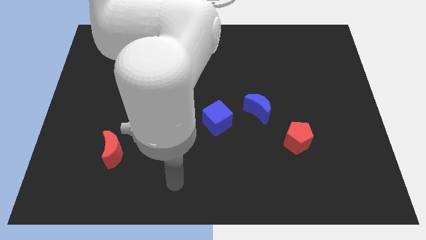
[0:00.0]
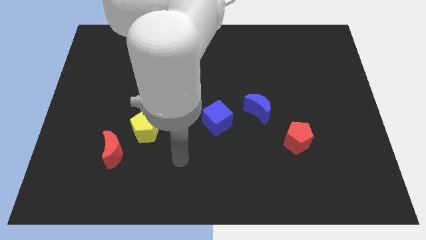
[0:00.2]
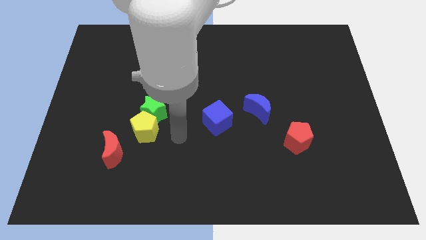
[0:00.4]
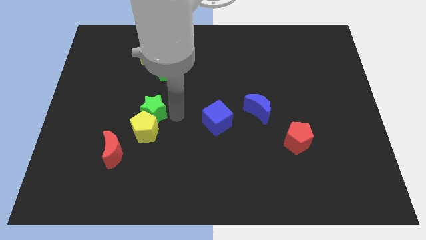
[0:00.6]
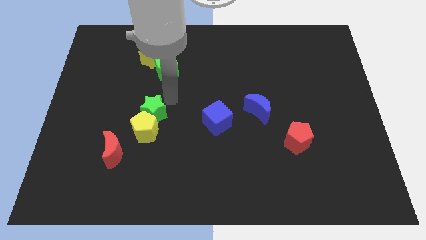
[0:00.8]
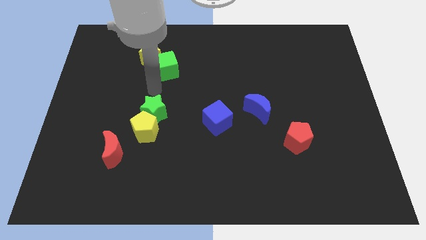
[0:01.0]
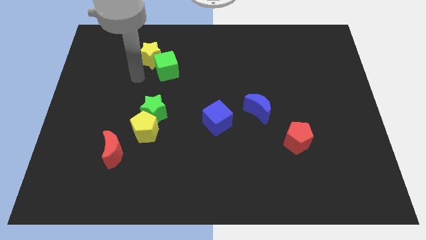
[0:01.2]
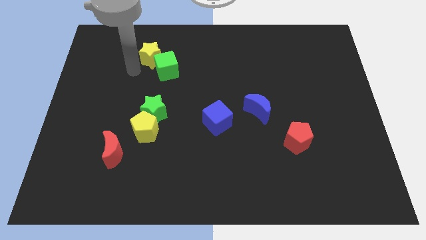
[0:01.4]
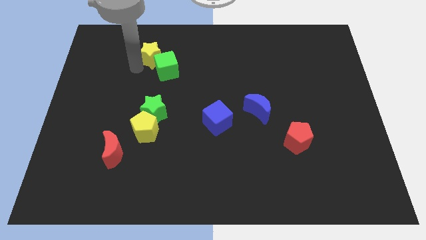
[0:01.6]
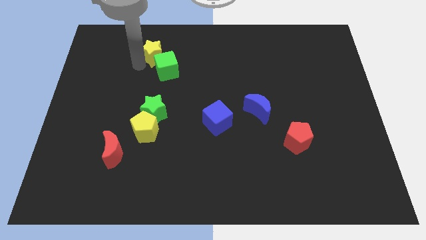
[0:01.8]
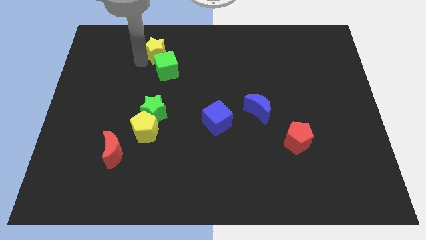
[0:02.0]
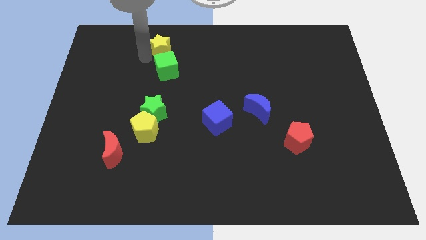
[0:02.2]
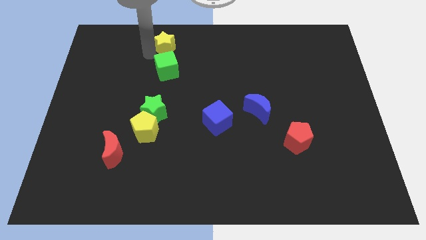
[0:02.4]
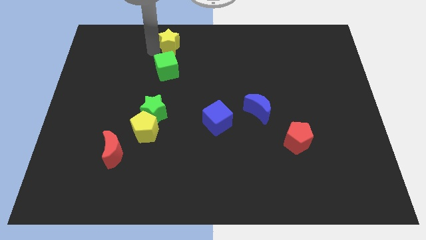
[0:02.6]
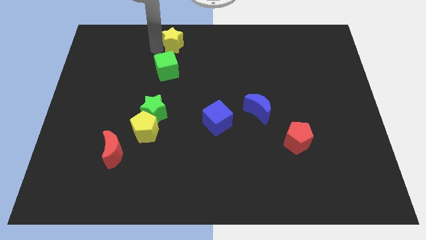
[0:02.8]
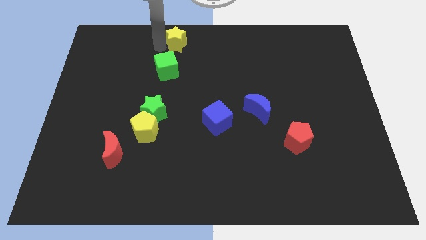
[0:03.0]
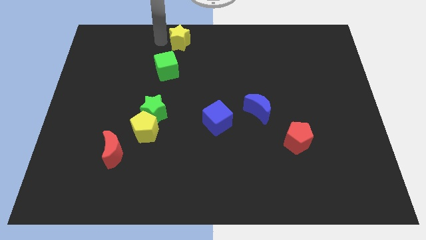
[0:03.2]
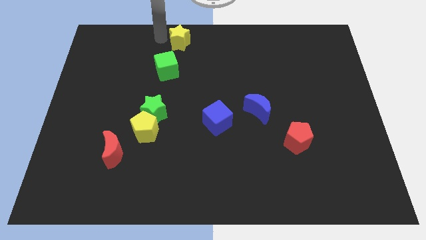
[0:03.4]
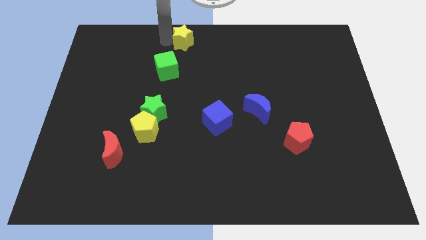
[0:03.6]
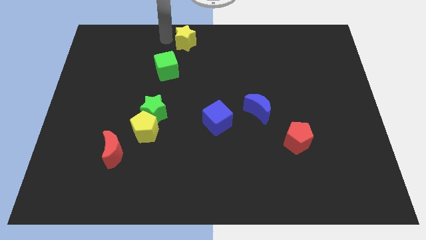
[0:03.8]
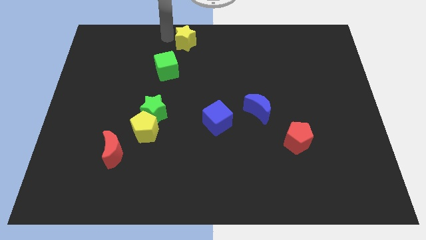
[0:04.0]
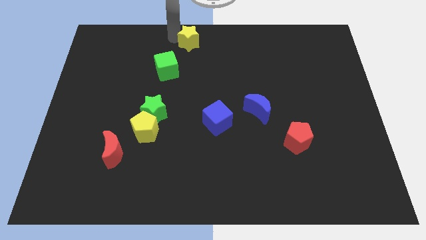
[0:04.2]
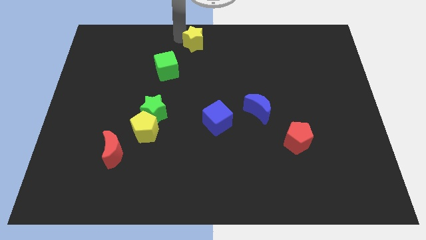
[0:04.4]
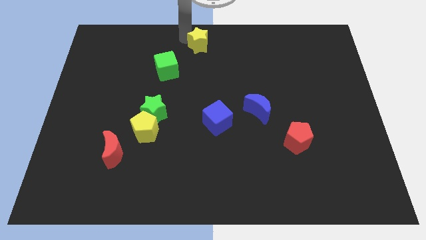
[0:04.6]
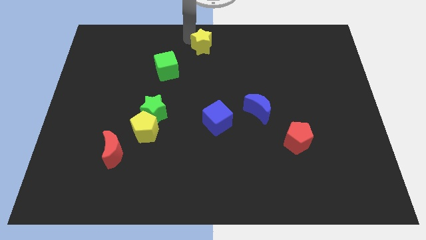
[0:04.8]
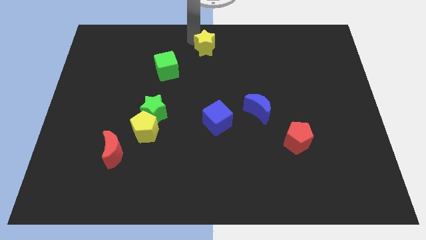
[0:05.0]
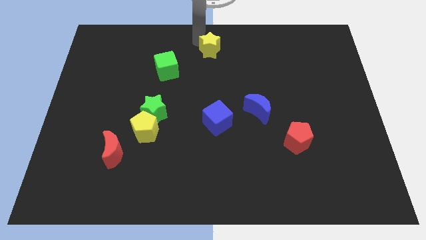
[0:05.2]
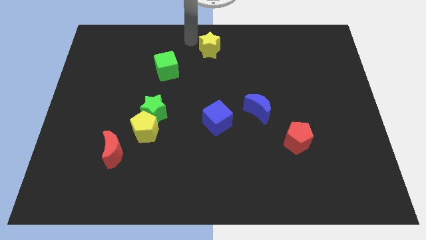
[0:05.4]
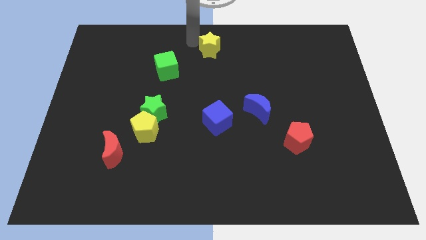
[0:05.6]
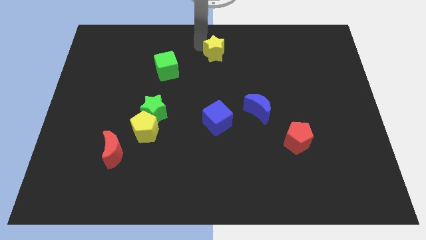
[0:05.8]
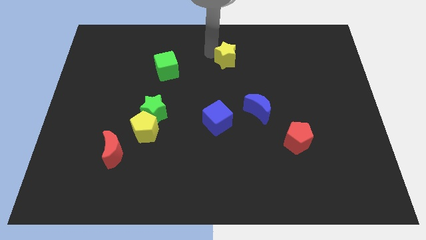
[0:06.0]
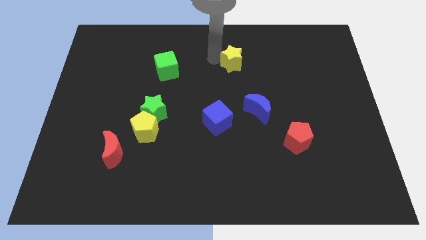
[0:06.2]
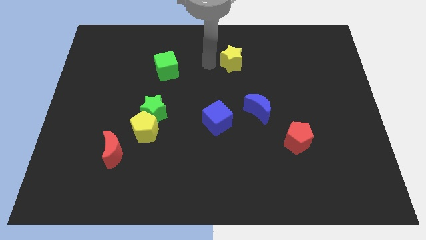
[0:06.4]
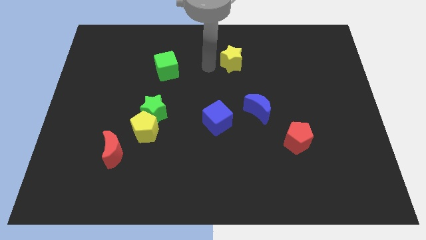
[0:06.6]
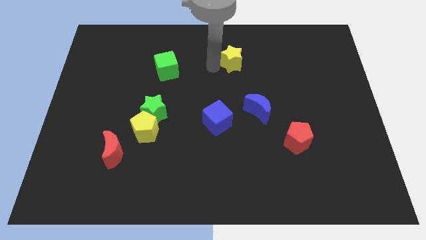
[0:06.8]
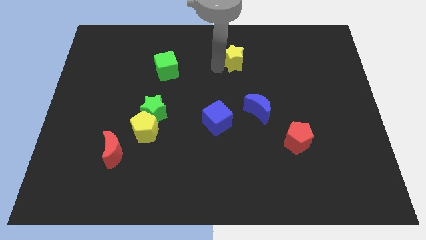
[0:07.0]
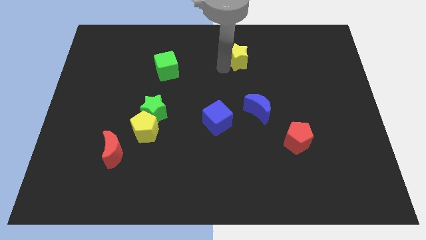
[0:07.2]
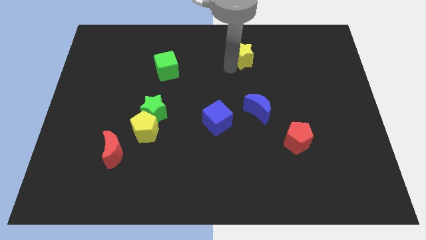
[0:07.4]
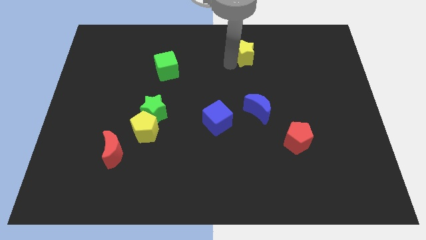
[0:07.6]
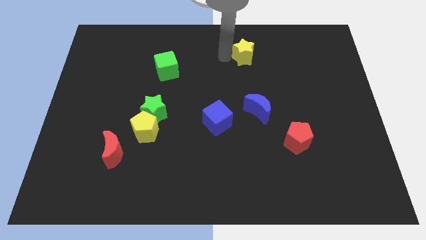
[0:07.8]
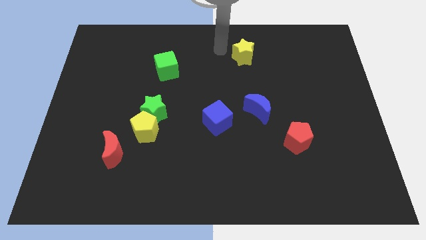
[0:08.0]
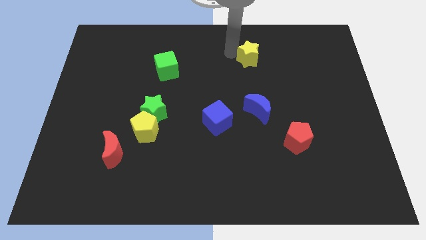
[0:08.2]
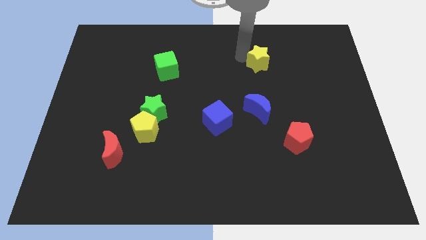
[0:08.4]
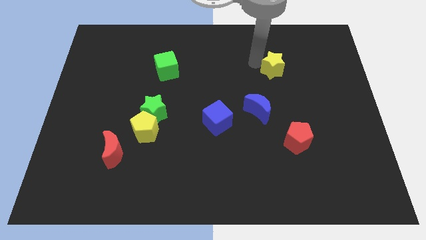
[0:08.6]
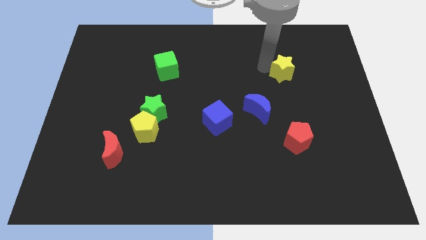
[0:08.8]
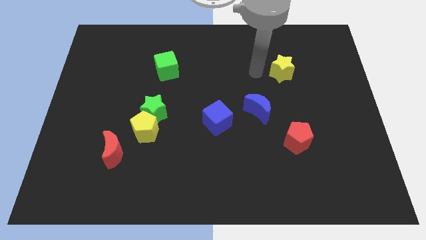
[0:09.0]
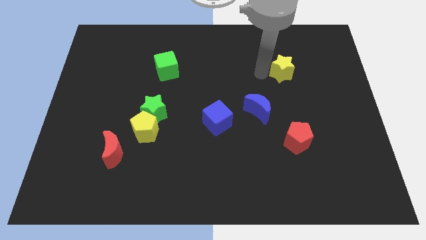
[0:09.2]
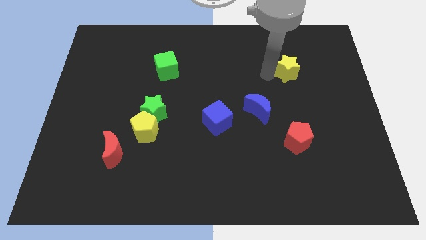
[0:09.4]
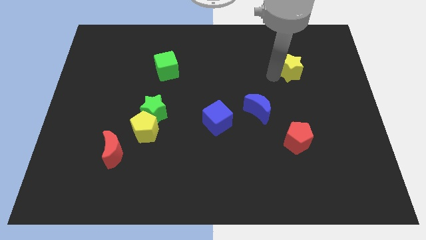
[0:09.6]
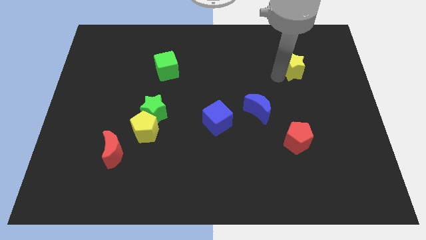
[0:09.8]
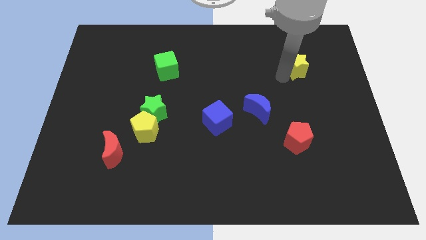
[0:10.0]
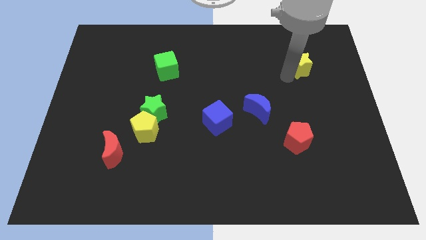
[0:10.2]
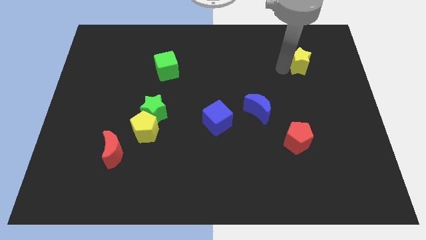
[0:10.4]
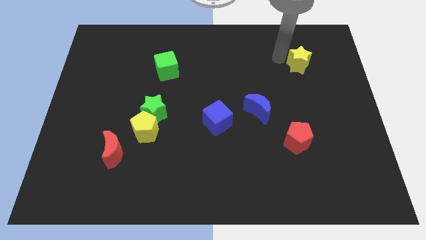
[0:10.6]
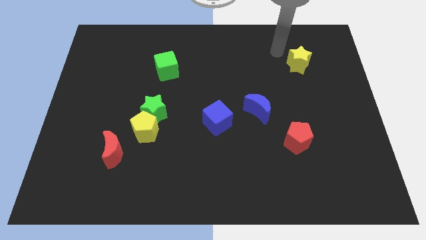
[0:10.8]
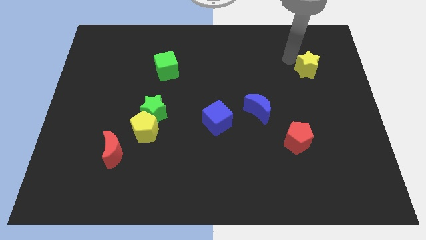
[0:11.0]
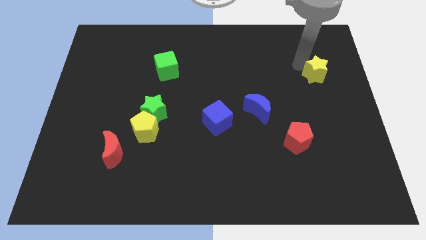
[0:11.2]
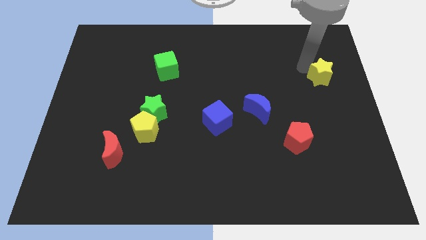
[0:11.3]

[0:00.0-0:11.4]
put the yellow star to the center right
